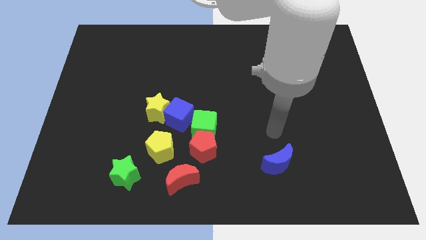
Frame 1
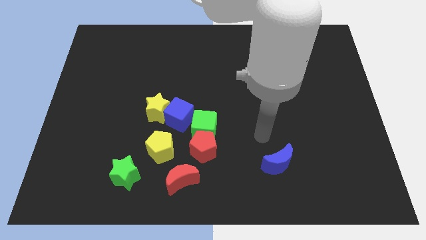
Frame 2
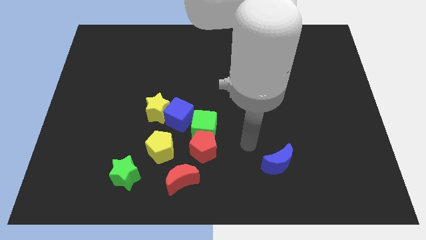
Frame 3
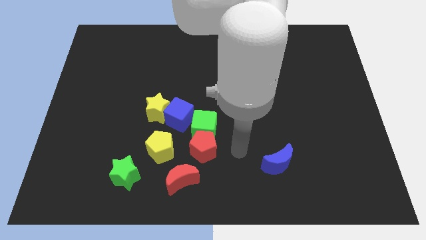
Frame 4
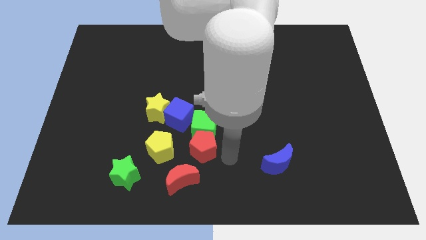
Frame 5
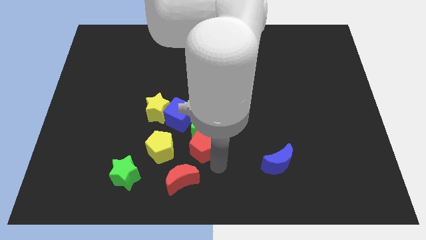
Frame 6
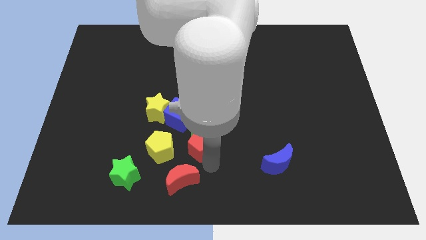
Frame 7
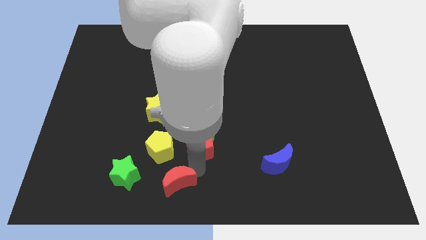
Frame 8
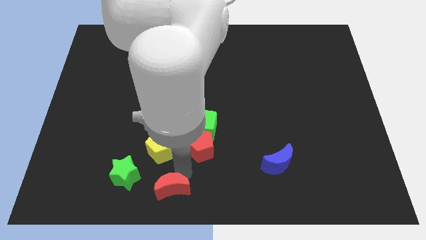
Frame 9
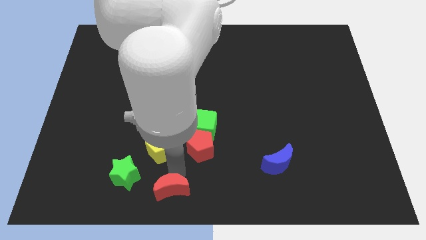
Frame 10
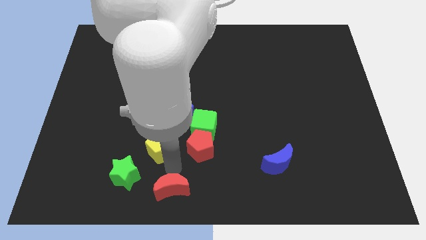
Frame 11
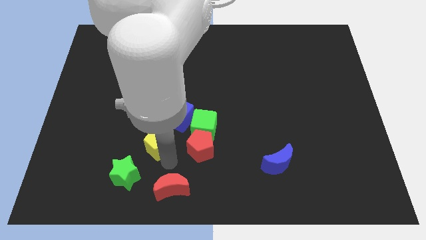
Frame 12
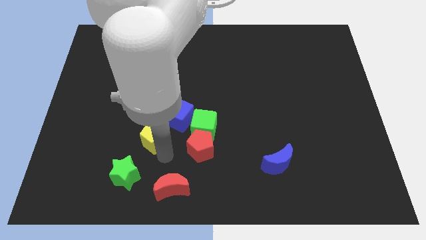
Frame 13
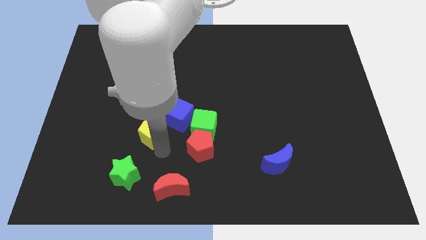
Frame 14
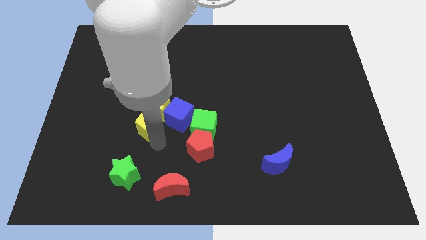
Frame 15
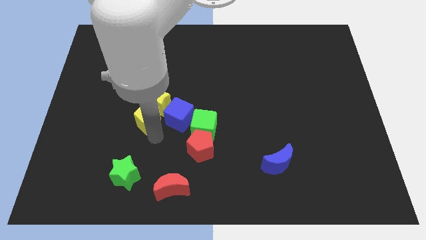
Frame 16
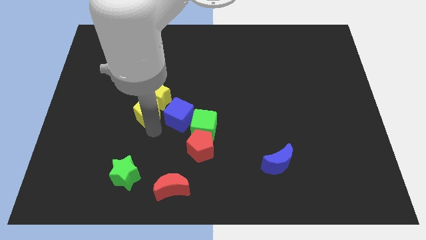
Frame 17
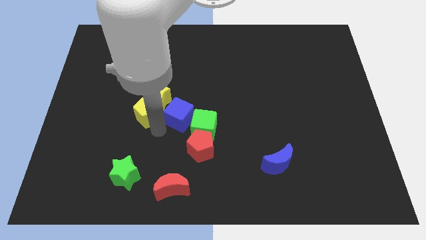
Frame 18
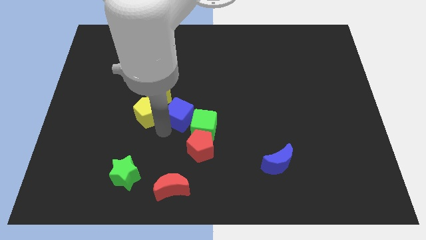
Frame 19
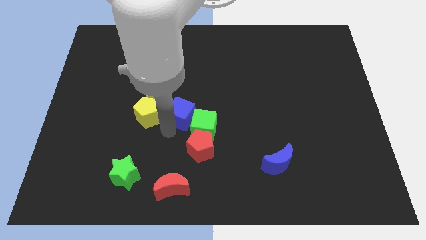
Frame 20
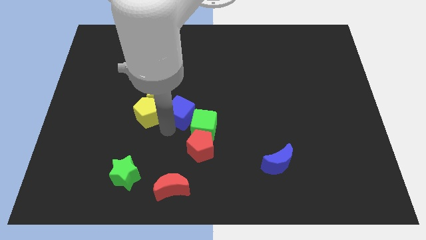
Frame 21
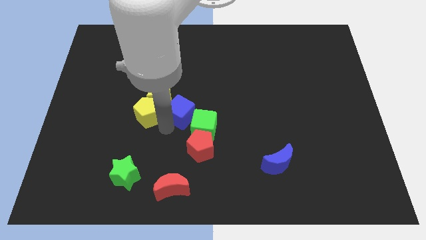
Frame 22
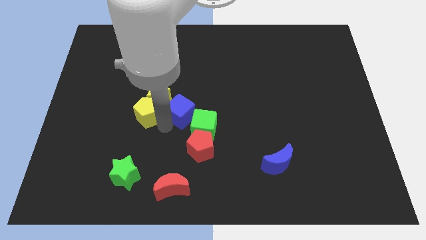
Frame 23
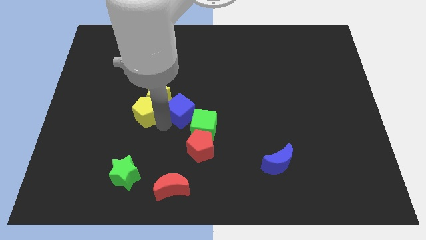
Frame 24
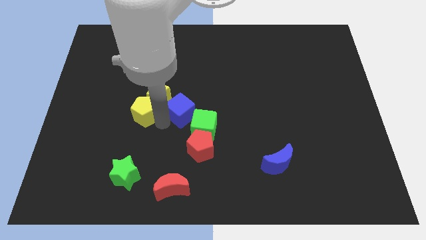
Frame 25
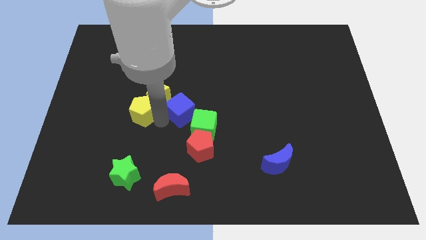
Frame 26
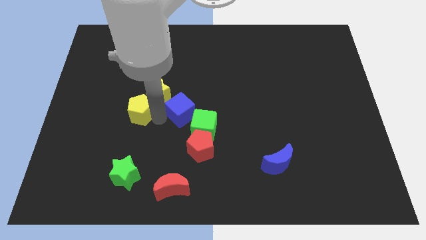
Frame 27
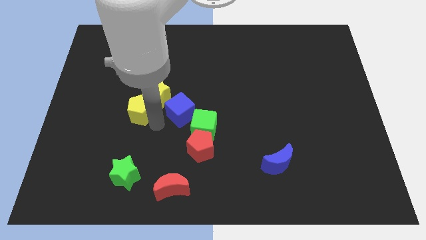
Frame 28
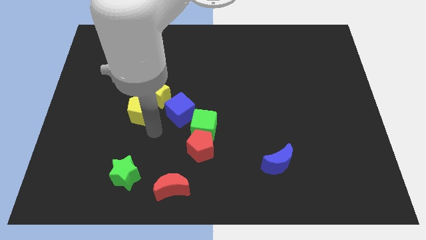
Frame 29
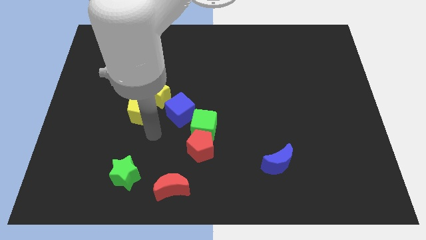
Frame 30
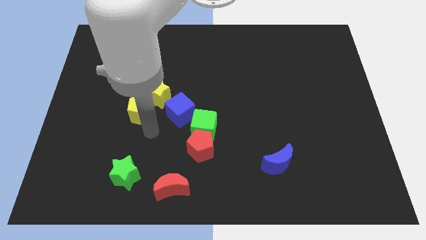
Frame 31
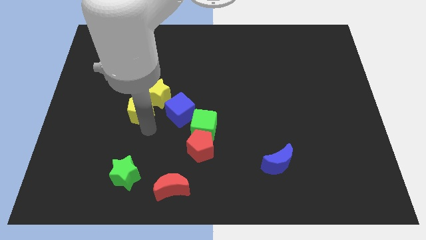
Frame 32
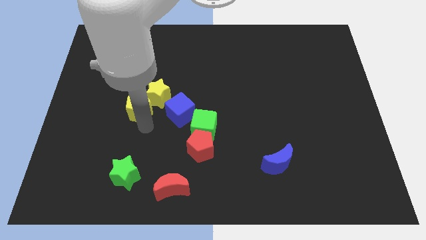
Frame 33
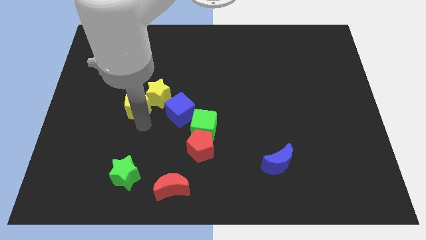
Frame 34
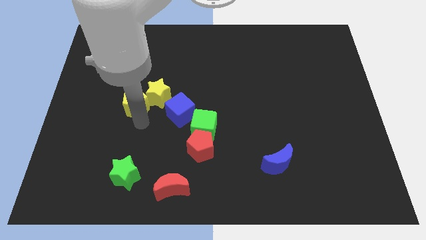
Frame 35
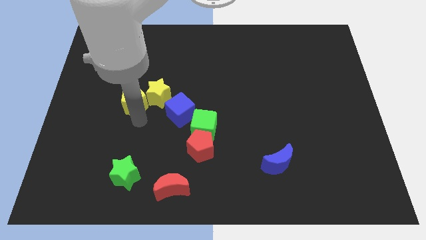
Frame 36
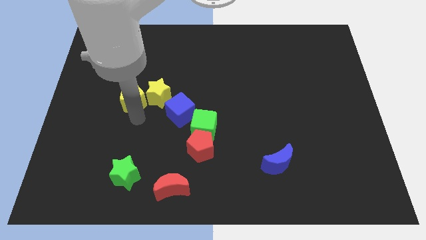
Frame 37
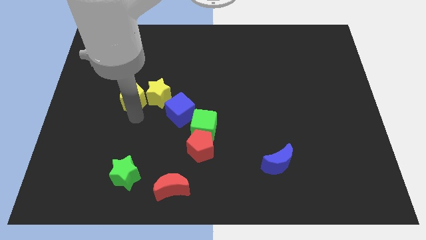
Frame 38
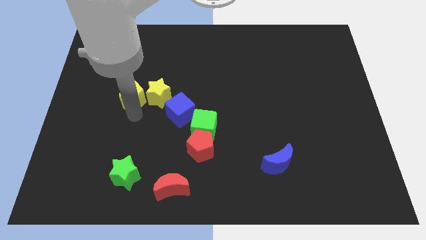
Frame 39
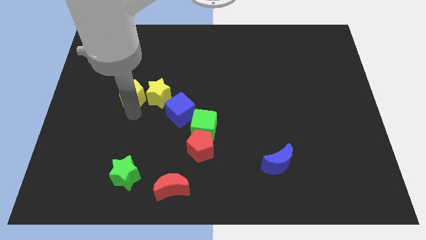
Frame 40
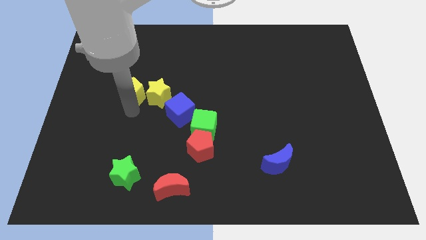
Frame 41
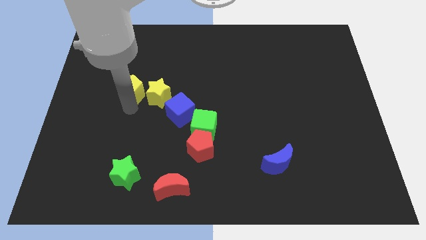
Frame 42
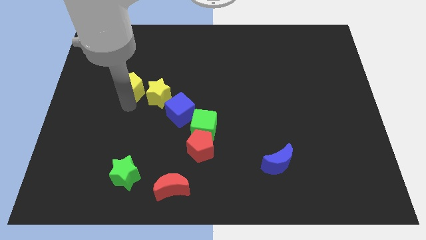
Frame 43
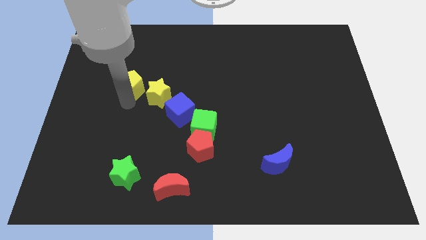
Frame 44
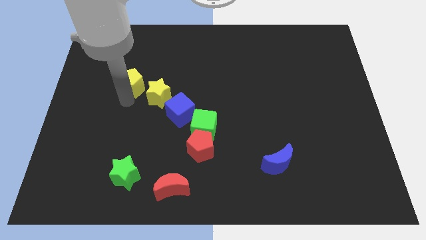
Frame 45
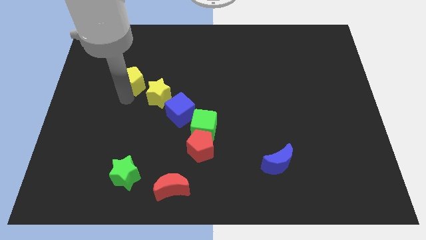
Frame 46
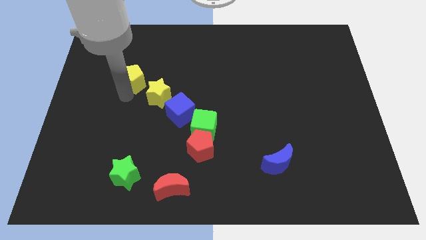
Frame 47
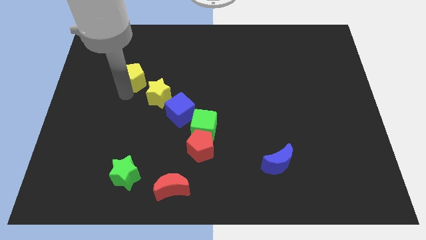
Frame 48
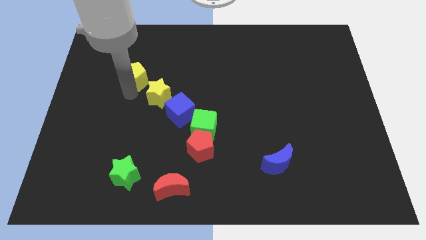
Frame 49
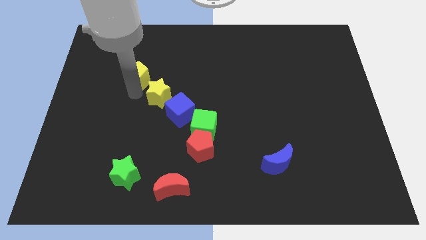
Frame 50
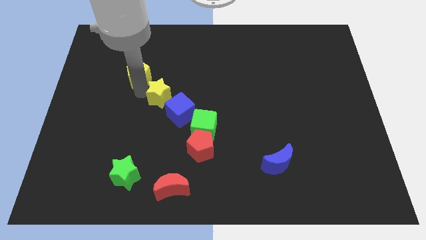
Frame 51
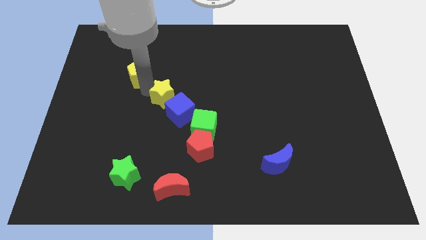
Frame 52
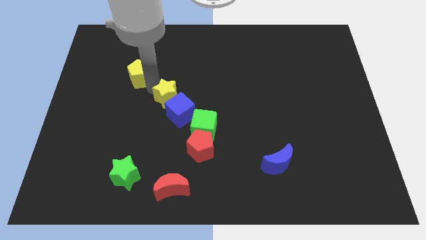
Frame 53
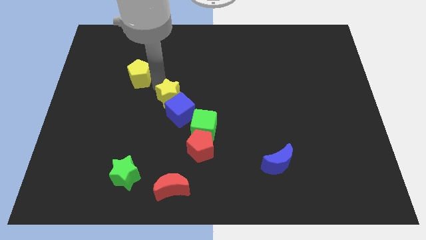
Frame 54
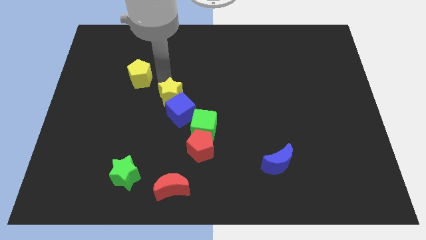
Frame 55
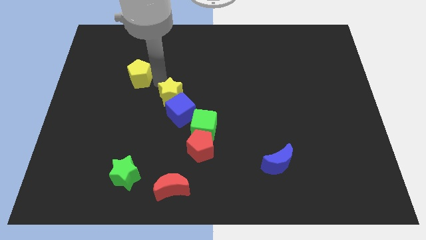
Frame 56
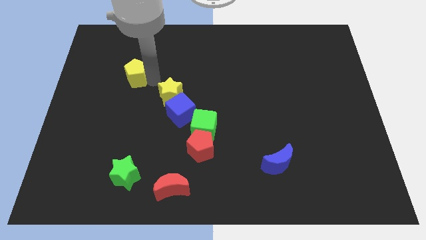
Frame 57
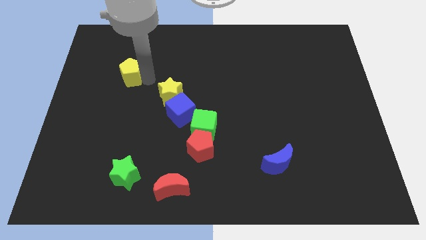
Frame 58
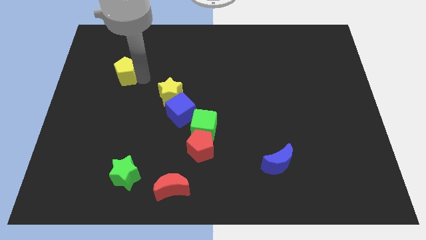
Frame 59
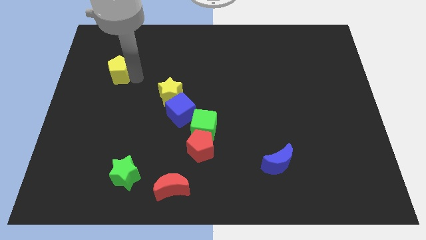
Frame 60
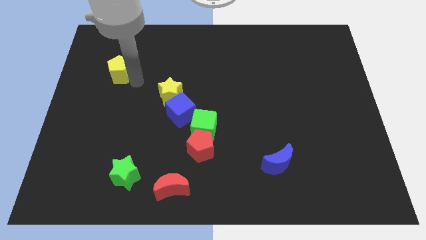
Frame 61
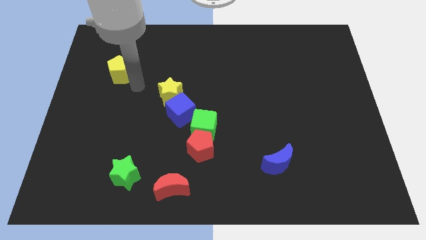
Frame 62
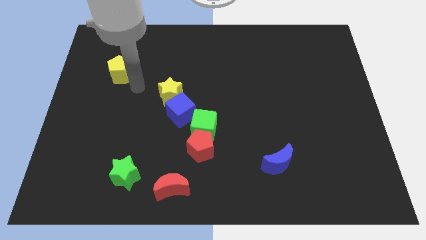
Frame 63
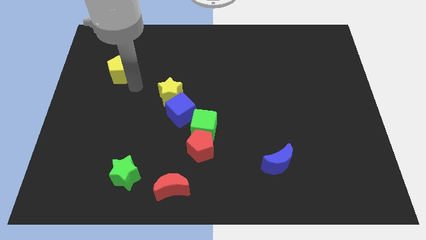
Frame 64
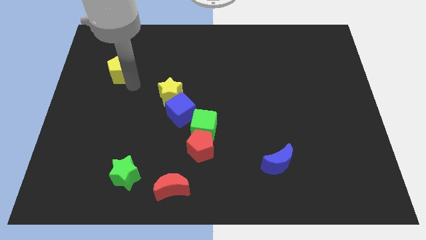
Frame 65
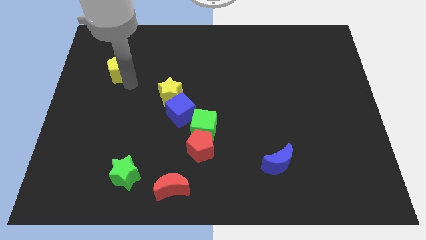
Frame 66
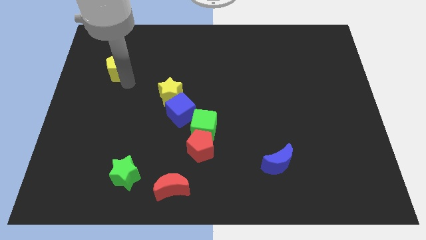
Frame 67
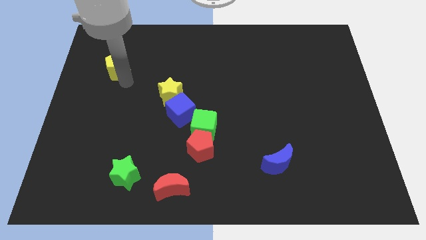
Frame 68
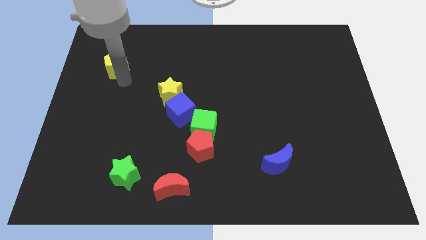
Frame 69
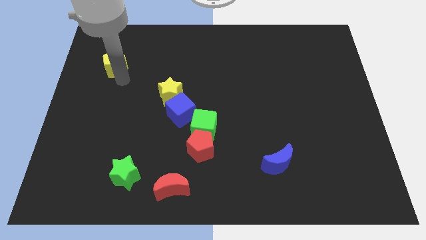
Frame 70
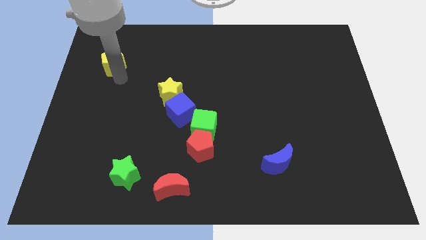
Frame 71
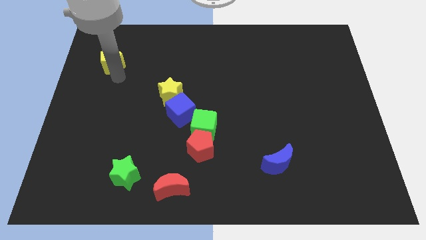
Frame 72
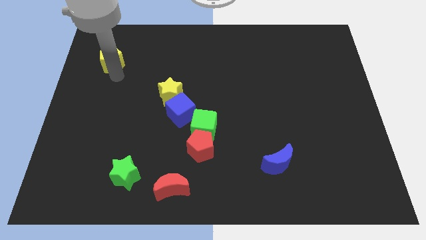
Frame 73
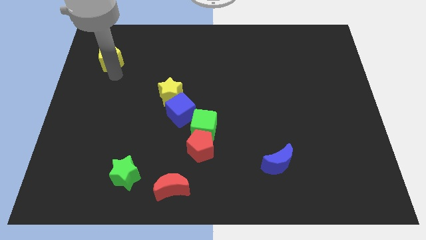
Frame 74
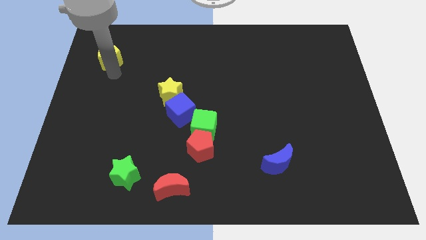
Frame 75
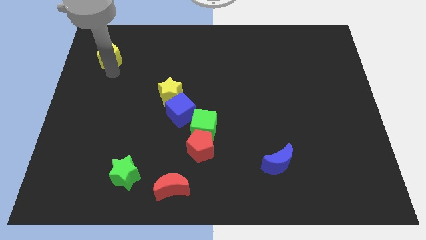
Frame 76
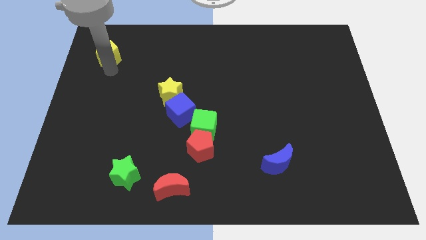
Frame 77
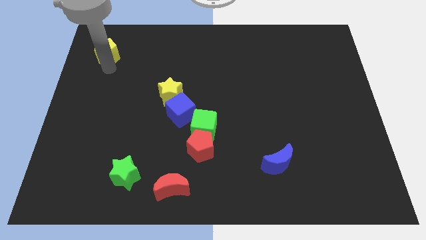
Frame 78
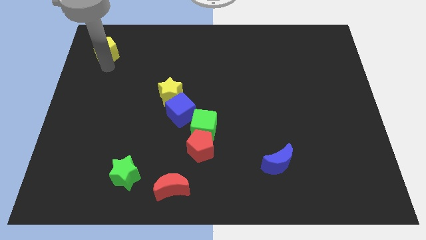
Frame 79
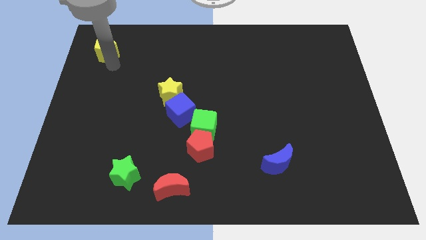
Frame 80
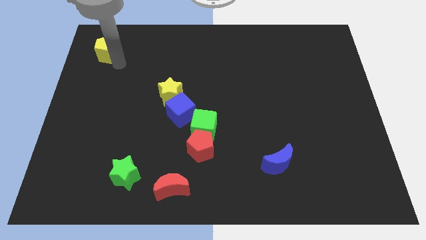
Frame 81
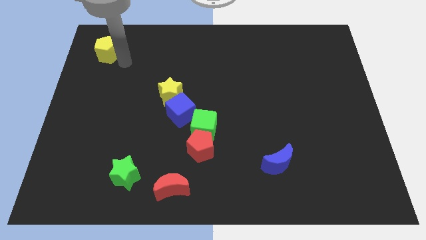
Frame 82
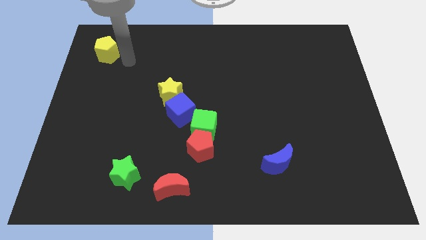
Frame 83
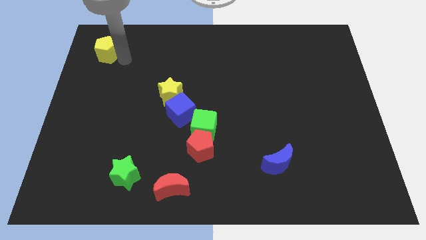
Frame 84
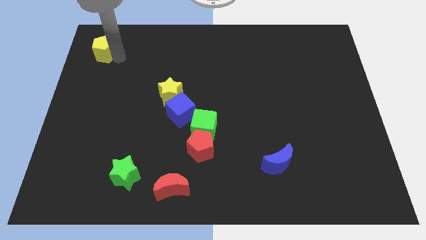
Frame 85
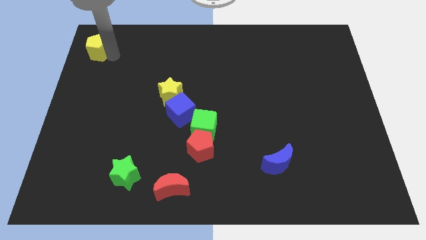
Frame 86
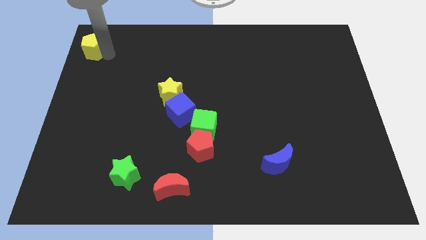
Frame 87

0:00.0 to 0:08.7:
put the yellow pentagon to the upper left corner
